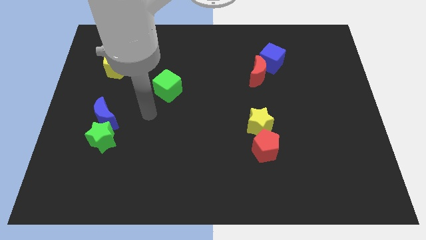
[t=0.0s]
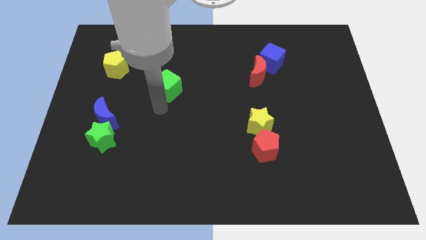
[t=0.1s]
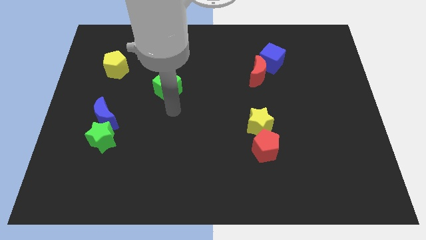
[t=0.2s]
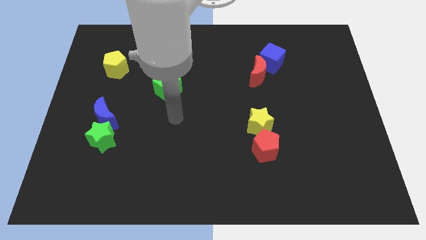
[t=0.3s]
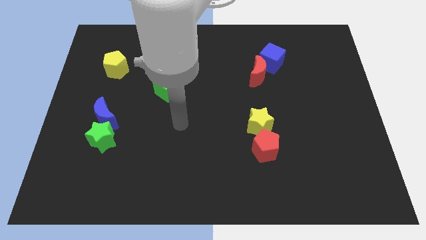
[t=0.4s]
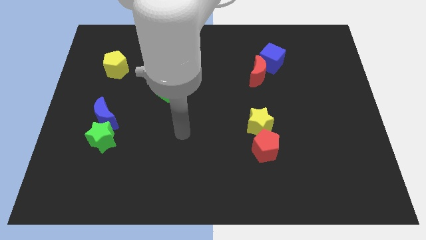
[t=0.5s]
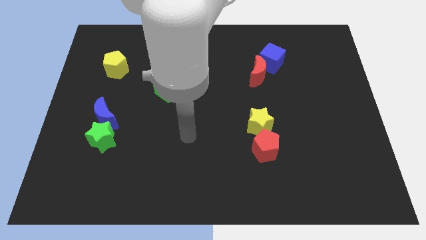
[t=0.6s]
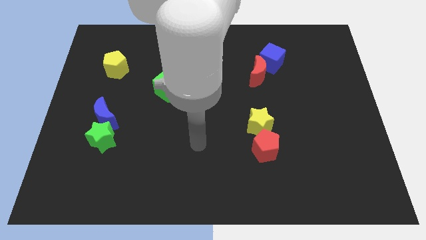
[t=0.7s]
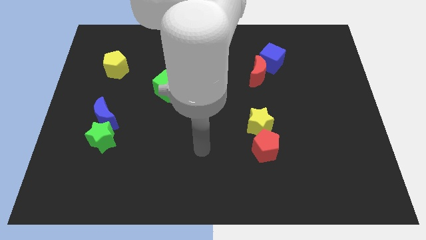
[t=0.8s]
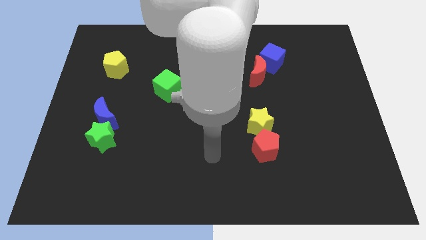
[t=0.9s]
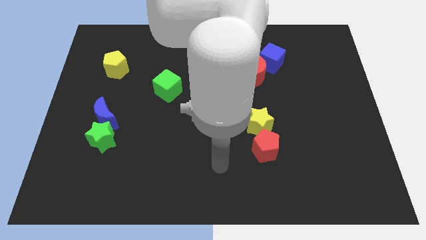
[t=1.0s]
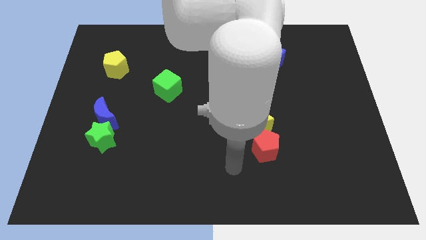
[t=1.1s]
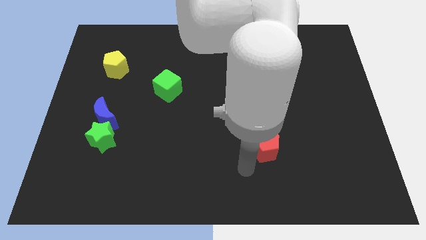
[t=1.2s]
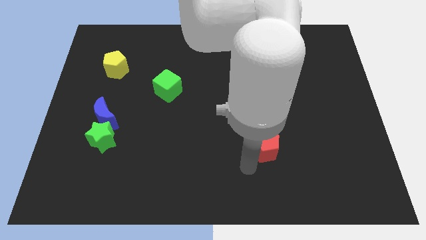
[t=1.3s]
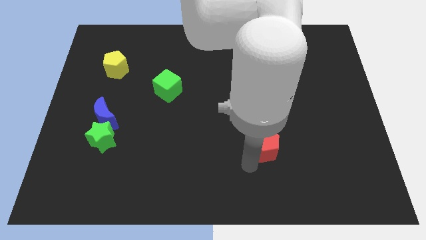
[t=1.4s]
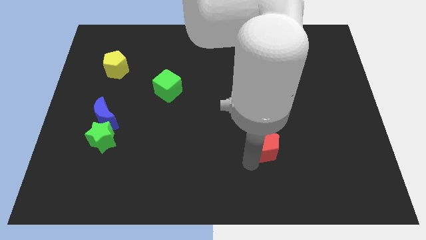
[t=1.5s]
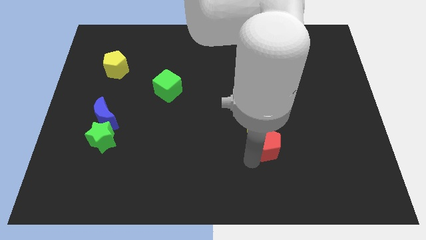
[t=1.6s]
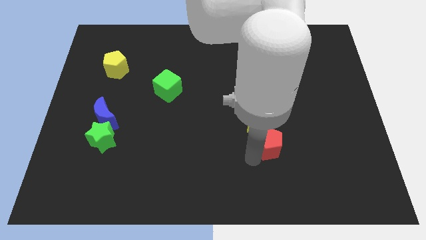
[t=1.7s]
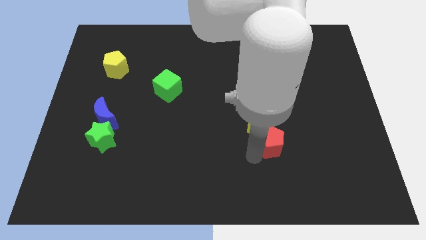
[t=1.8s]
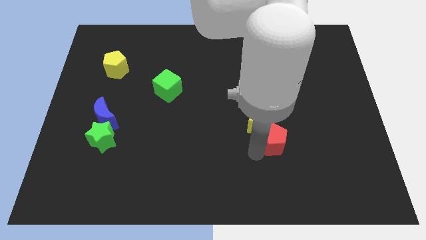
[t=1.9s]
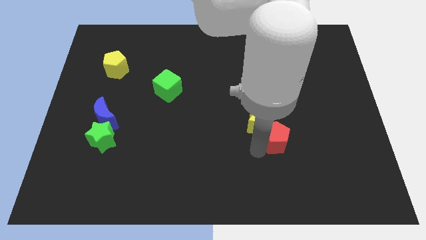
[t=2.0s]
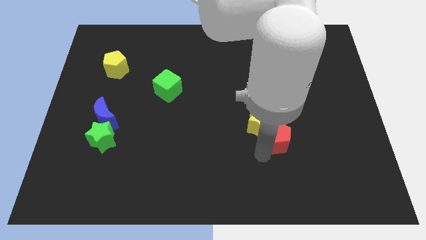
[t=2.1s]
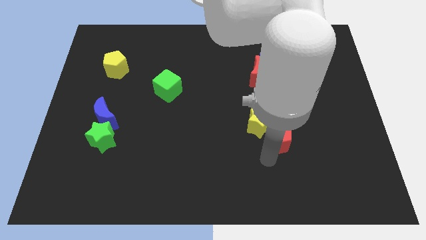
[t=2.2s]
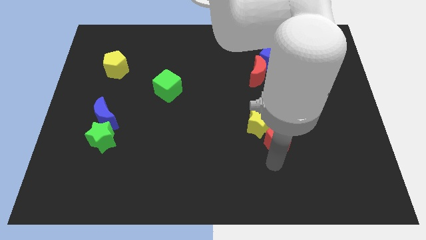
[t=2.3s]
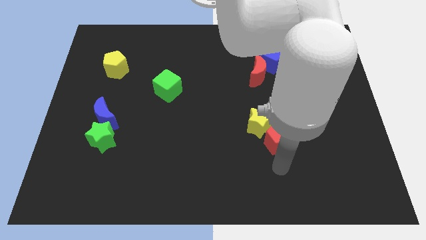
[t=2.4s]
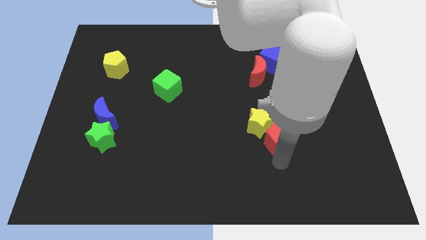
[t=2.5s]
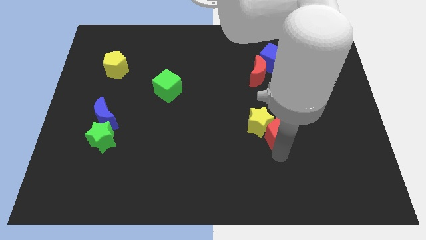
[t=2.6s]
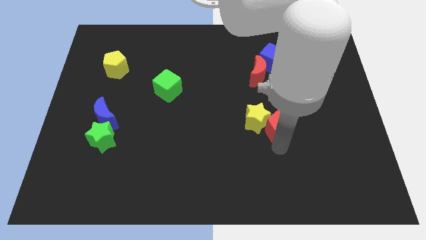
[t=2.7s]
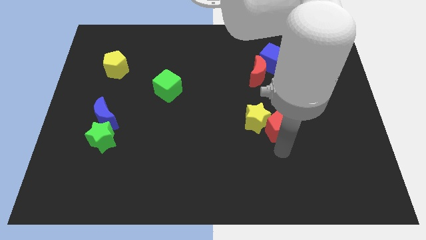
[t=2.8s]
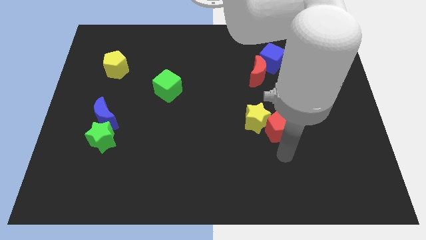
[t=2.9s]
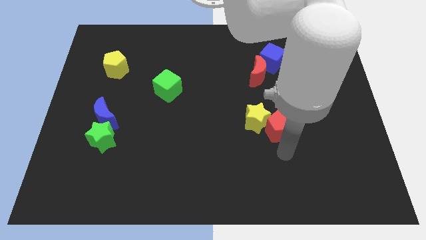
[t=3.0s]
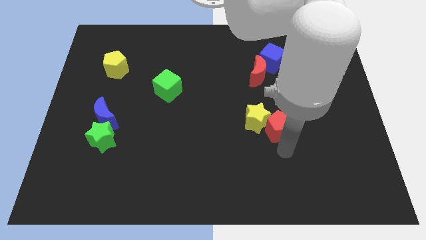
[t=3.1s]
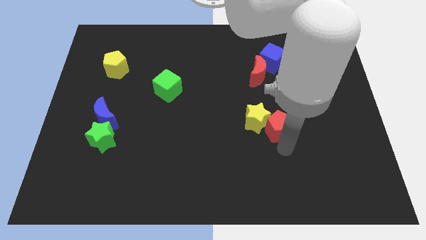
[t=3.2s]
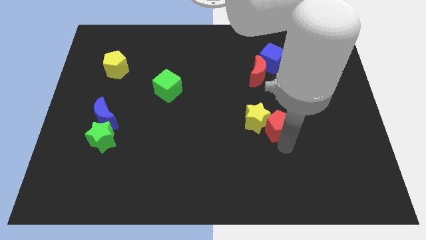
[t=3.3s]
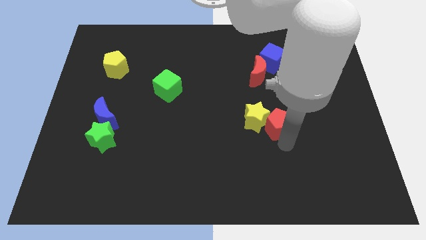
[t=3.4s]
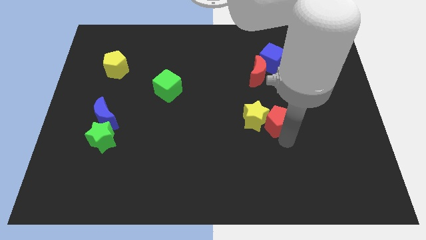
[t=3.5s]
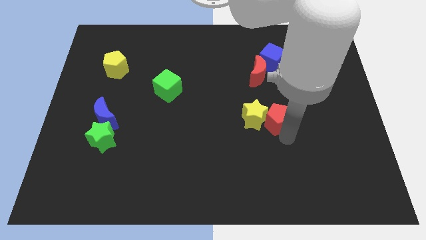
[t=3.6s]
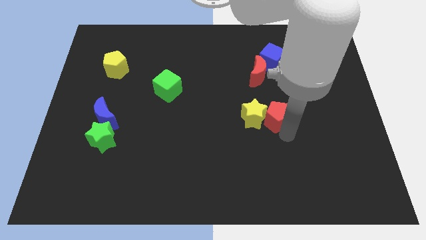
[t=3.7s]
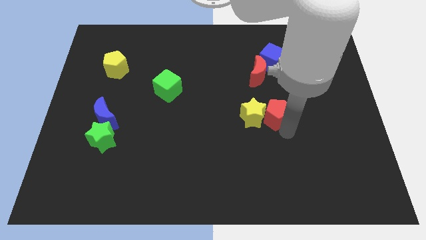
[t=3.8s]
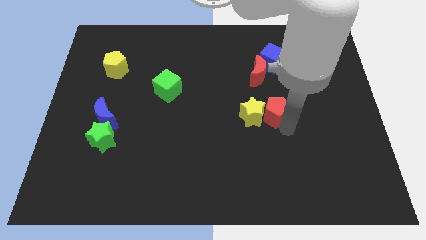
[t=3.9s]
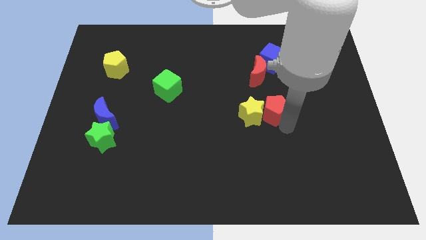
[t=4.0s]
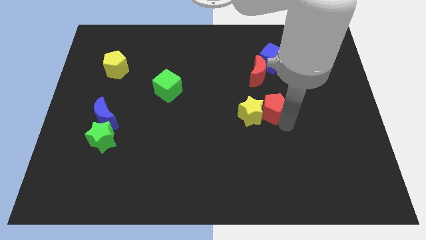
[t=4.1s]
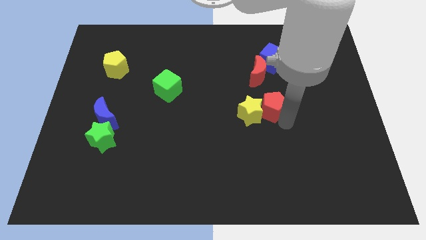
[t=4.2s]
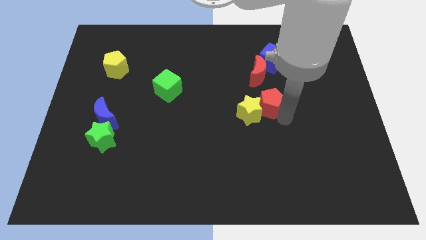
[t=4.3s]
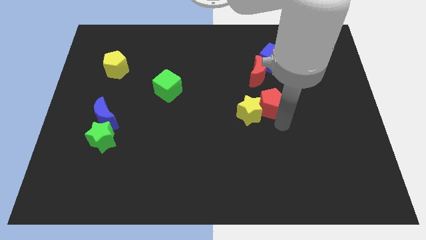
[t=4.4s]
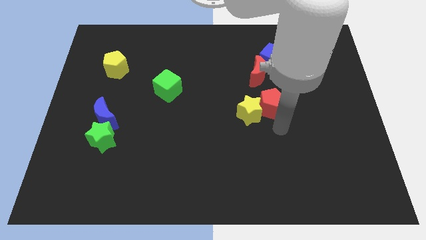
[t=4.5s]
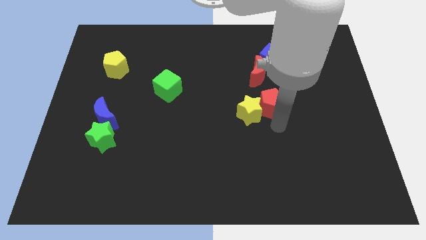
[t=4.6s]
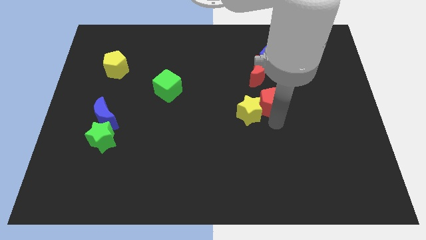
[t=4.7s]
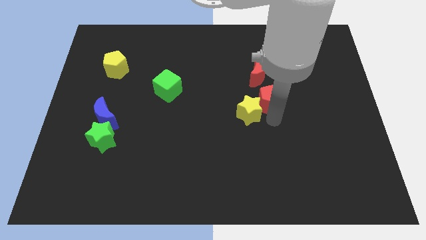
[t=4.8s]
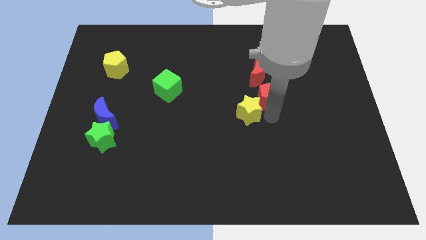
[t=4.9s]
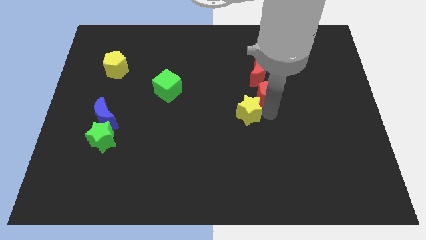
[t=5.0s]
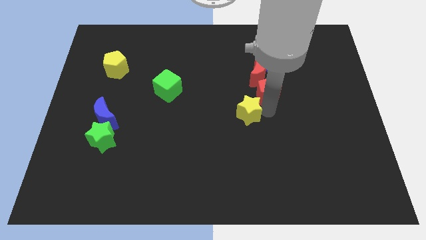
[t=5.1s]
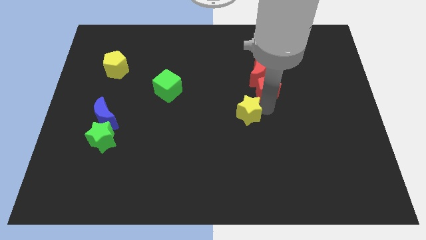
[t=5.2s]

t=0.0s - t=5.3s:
move the red pentagon close to the red moon

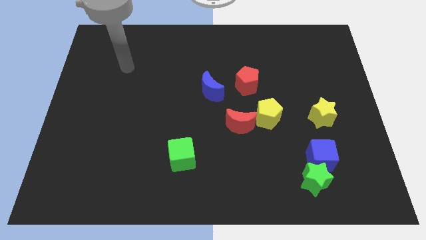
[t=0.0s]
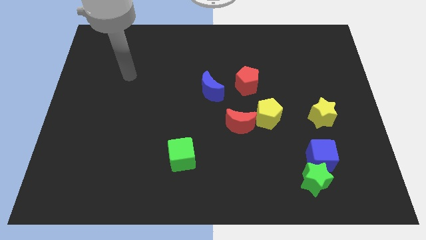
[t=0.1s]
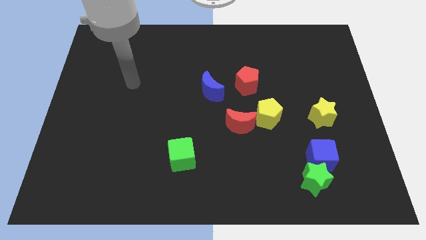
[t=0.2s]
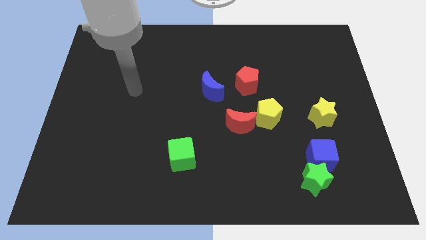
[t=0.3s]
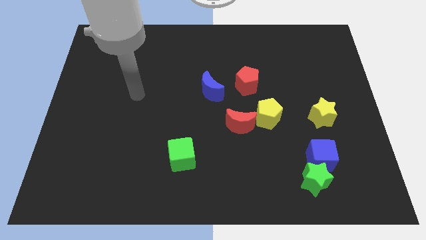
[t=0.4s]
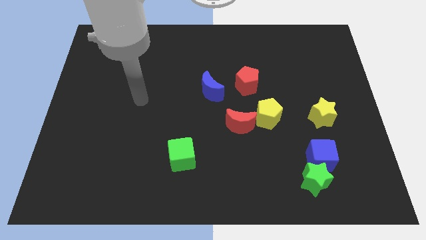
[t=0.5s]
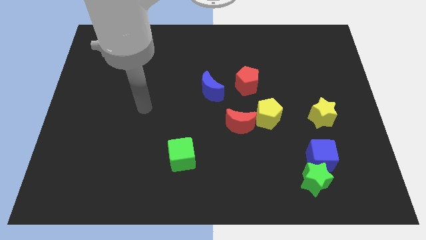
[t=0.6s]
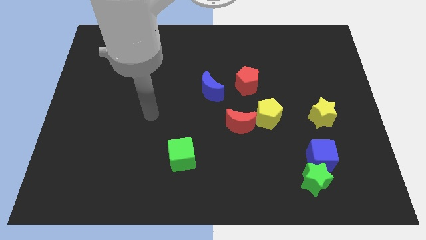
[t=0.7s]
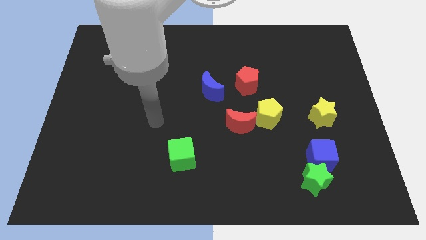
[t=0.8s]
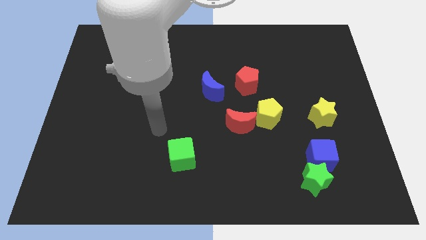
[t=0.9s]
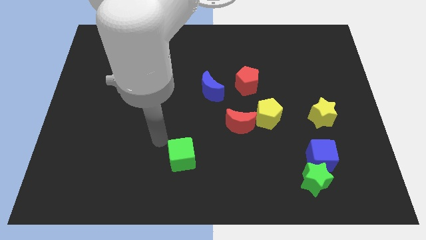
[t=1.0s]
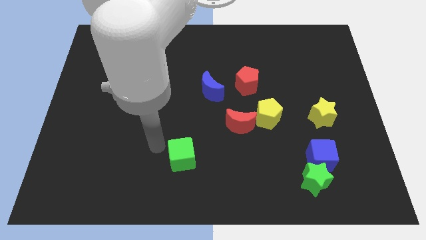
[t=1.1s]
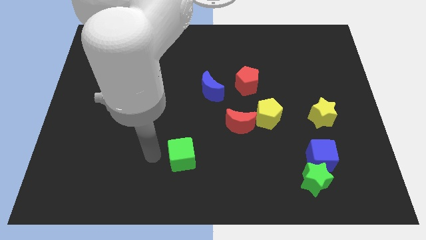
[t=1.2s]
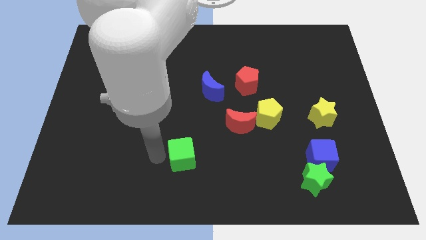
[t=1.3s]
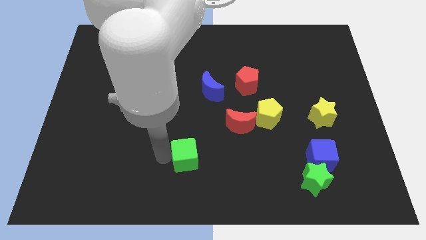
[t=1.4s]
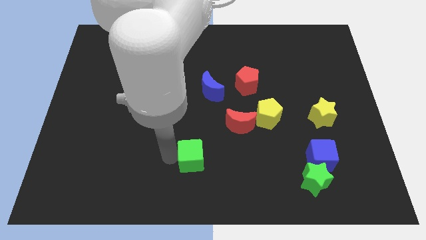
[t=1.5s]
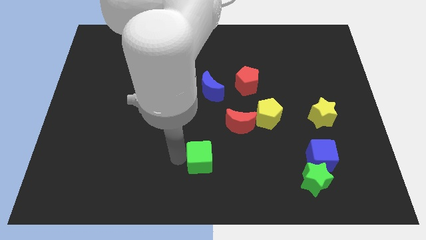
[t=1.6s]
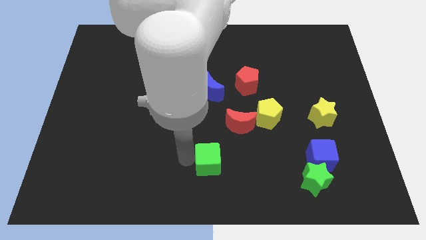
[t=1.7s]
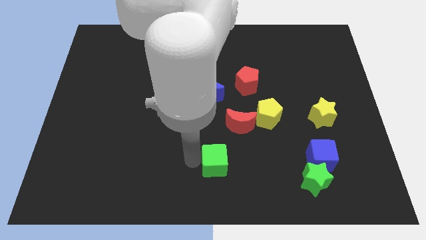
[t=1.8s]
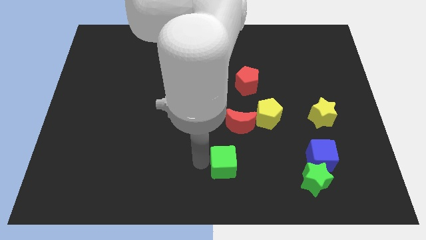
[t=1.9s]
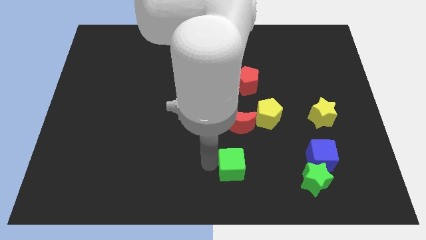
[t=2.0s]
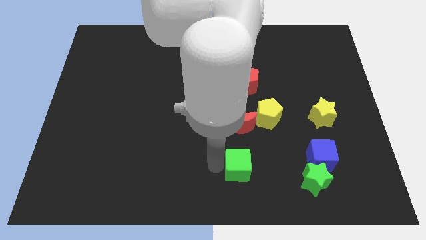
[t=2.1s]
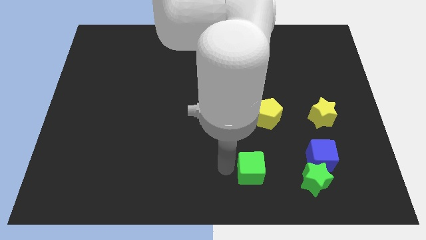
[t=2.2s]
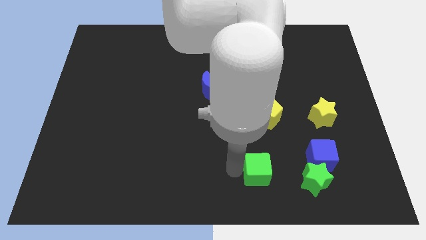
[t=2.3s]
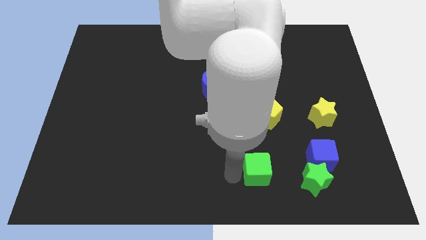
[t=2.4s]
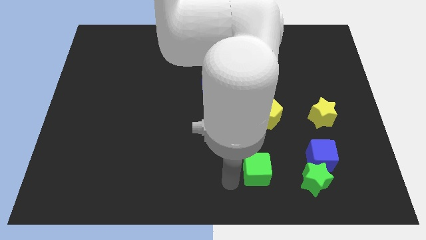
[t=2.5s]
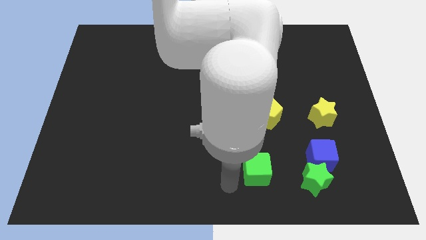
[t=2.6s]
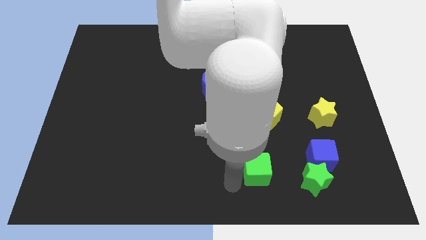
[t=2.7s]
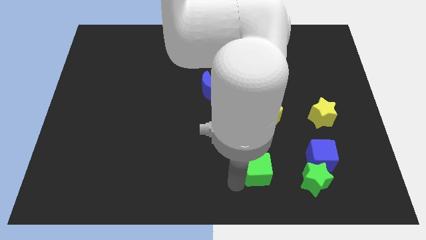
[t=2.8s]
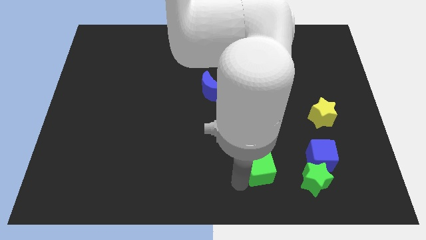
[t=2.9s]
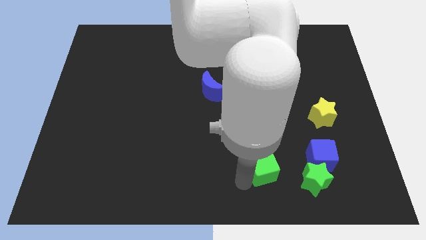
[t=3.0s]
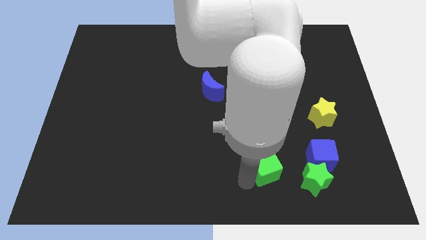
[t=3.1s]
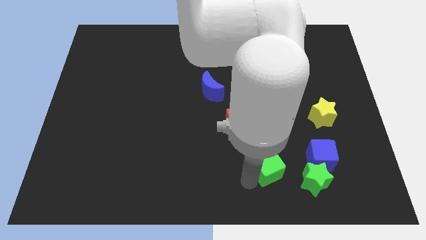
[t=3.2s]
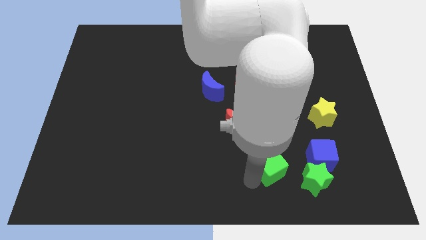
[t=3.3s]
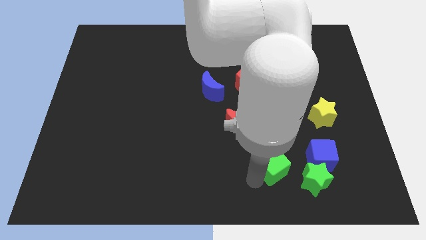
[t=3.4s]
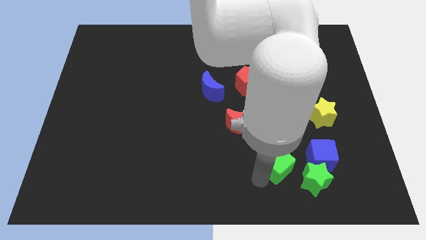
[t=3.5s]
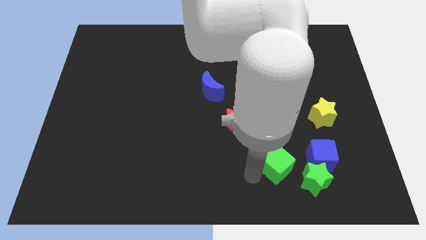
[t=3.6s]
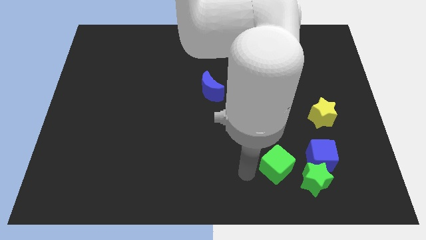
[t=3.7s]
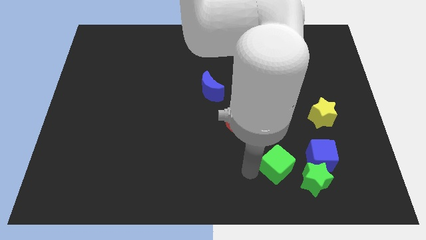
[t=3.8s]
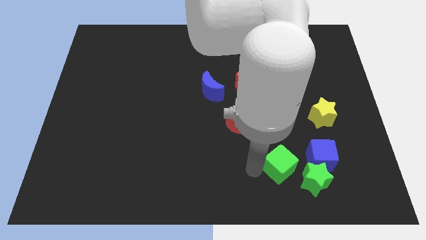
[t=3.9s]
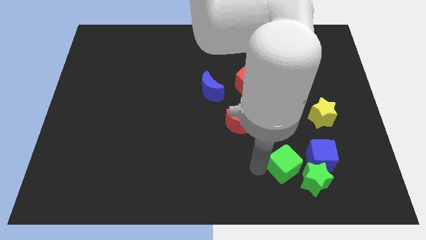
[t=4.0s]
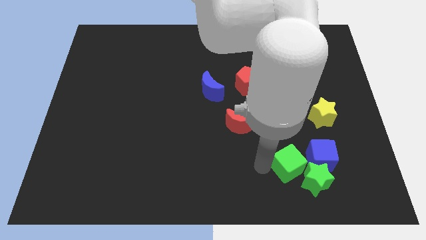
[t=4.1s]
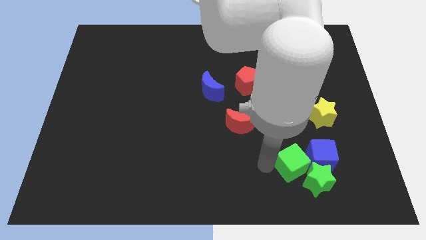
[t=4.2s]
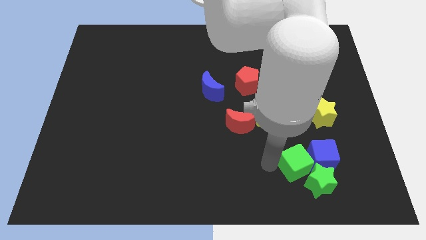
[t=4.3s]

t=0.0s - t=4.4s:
slide the green cube towards the blue cube
